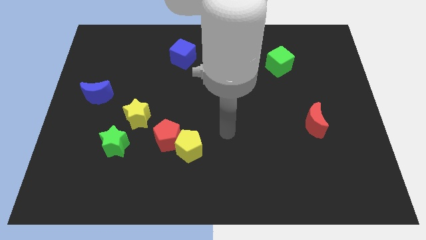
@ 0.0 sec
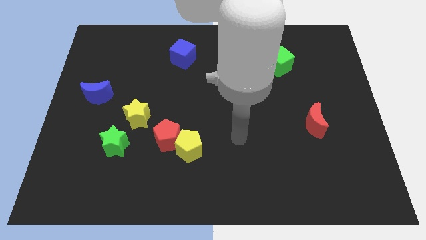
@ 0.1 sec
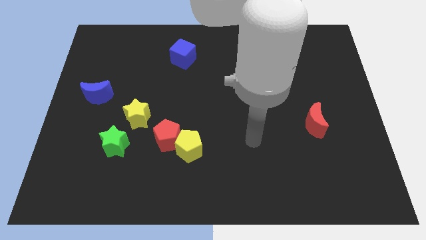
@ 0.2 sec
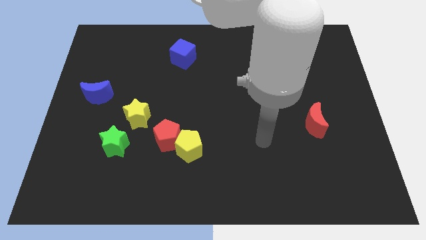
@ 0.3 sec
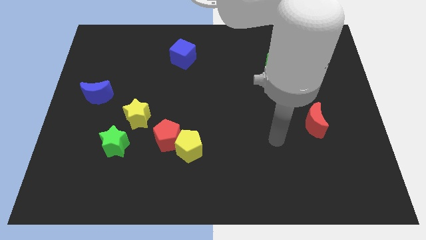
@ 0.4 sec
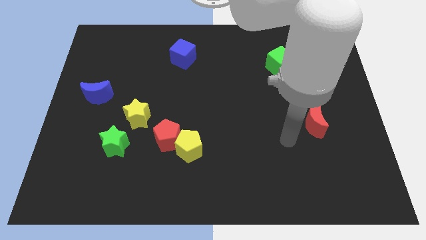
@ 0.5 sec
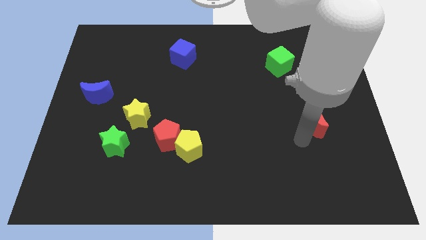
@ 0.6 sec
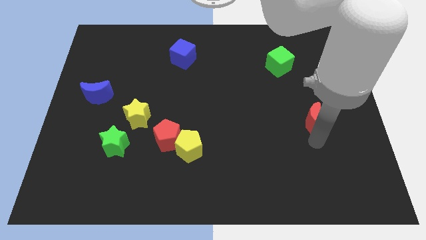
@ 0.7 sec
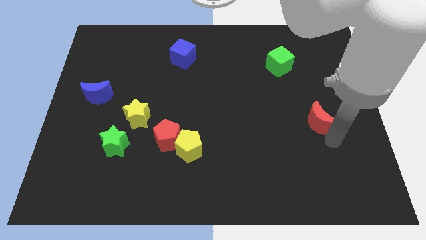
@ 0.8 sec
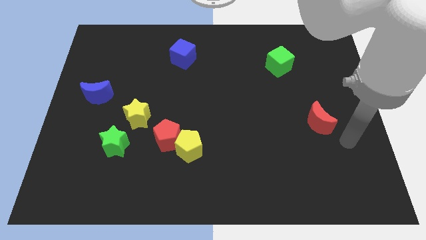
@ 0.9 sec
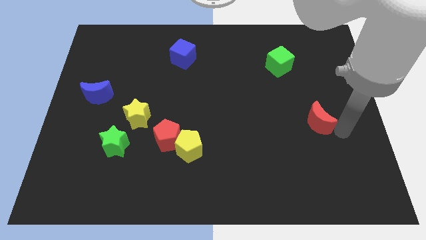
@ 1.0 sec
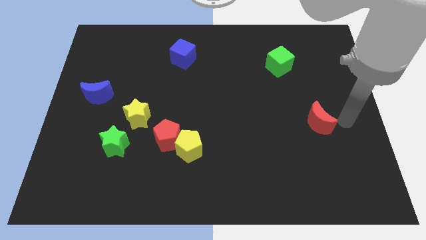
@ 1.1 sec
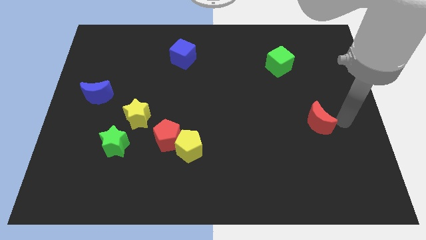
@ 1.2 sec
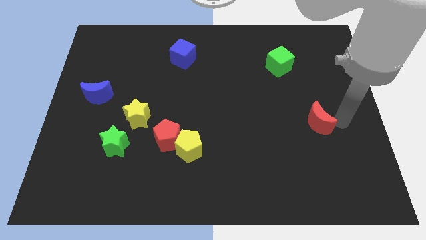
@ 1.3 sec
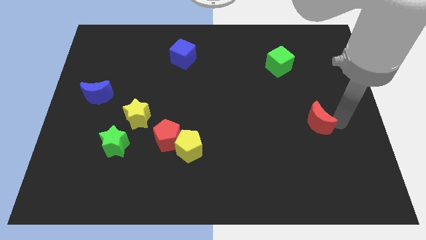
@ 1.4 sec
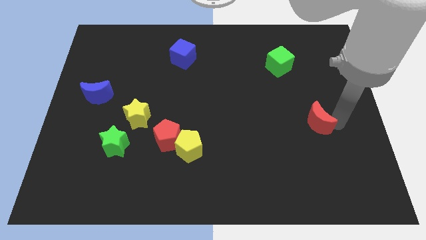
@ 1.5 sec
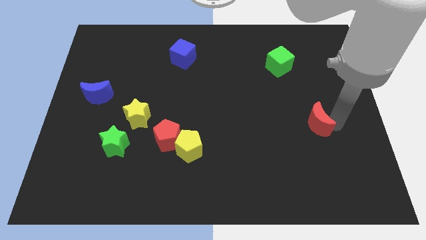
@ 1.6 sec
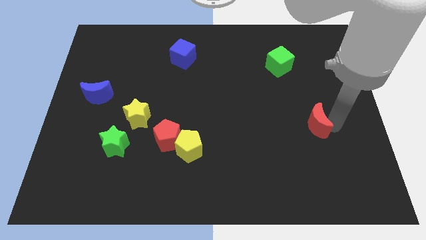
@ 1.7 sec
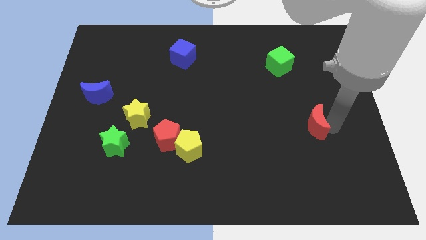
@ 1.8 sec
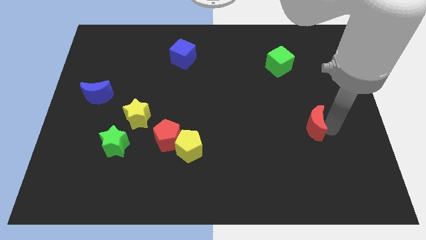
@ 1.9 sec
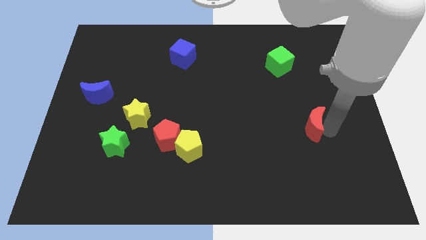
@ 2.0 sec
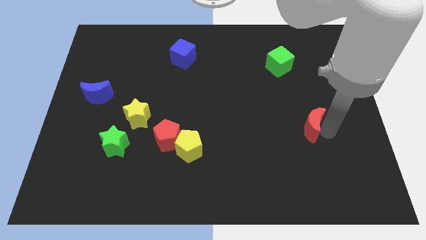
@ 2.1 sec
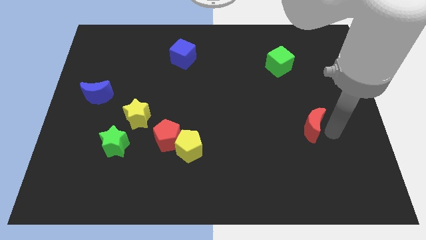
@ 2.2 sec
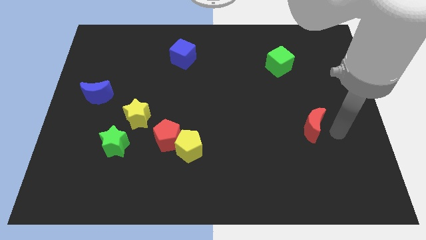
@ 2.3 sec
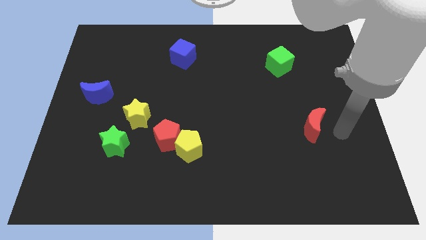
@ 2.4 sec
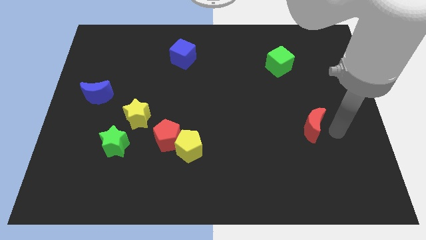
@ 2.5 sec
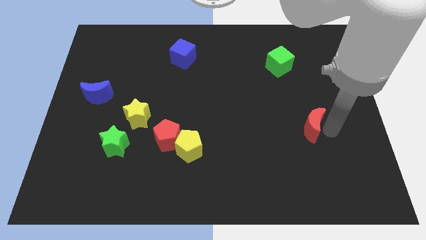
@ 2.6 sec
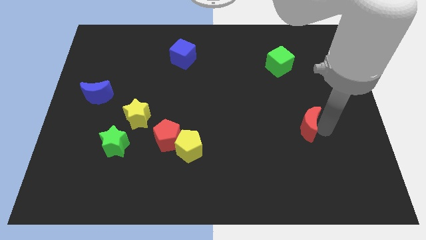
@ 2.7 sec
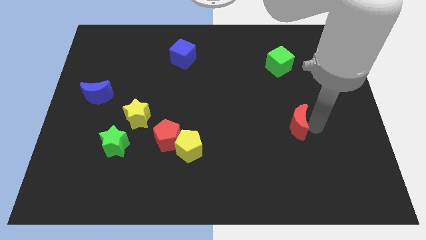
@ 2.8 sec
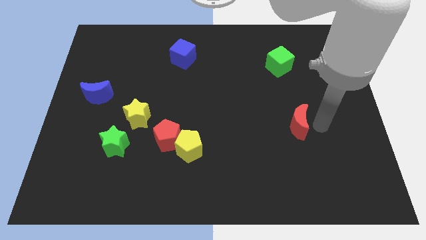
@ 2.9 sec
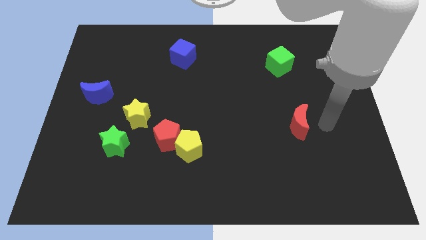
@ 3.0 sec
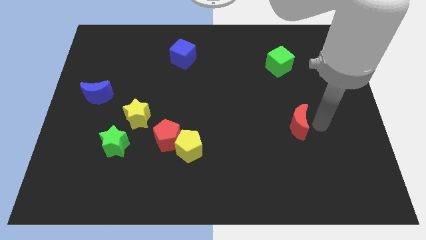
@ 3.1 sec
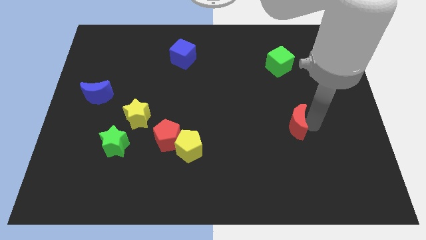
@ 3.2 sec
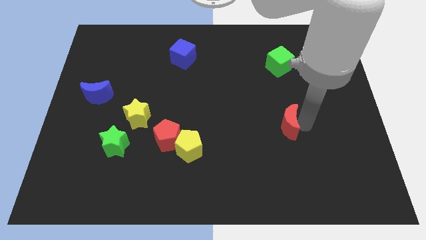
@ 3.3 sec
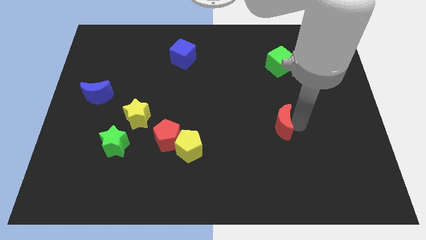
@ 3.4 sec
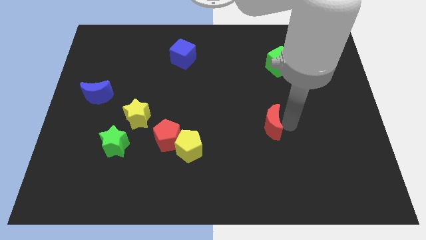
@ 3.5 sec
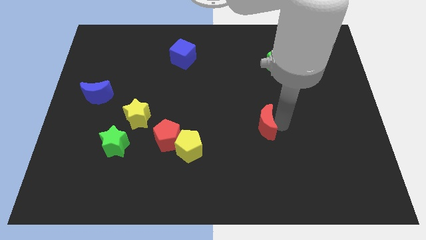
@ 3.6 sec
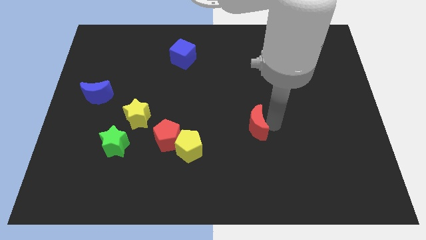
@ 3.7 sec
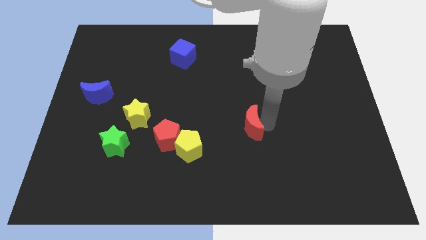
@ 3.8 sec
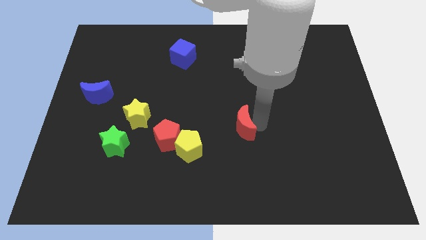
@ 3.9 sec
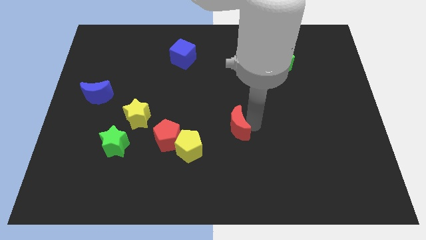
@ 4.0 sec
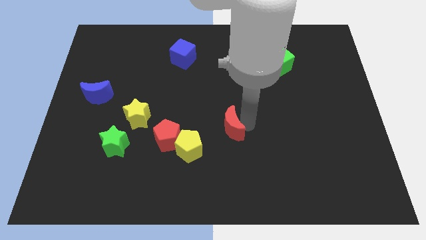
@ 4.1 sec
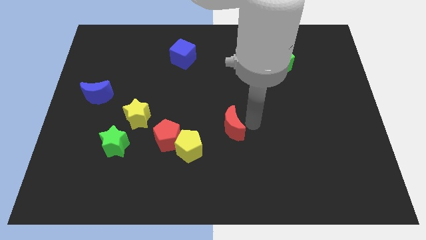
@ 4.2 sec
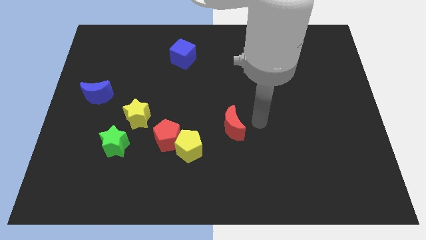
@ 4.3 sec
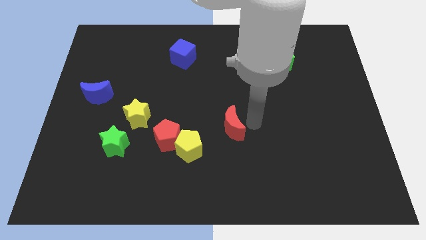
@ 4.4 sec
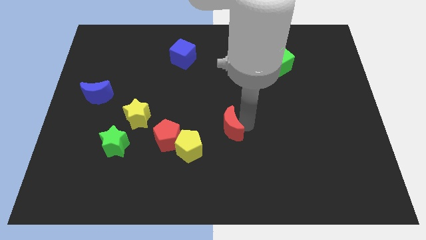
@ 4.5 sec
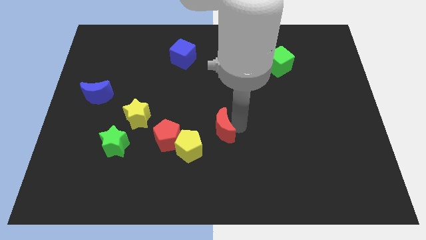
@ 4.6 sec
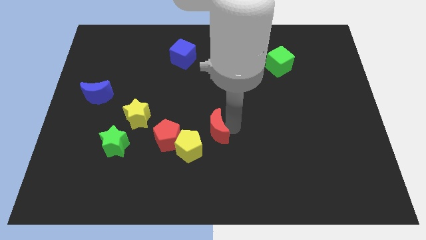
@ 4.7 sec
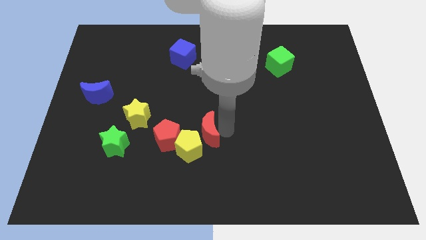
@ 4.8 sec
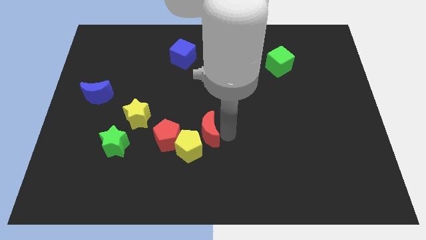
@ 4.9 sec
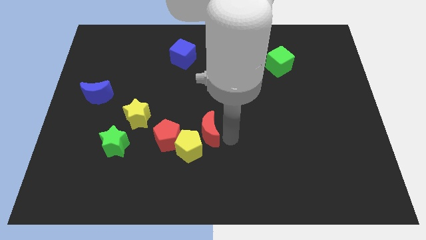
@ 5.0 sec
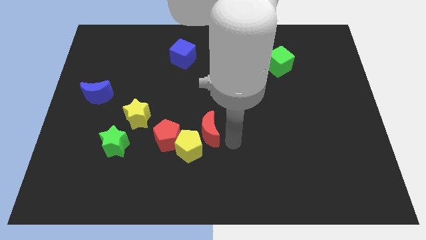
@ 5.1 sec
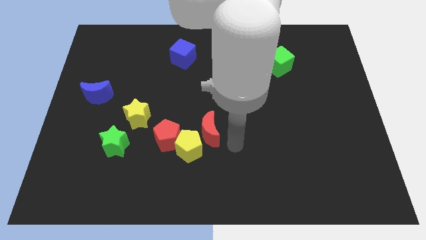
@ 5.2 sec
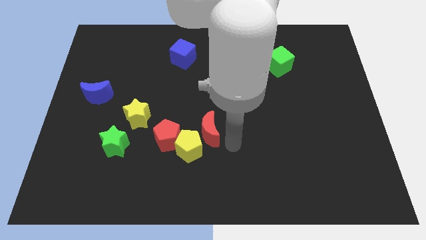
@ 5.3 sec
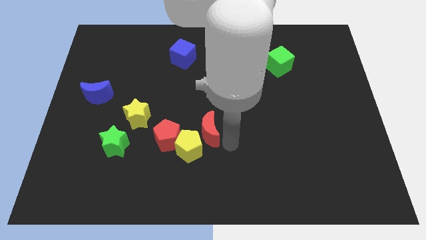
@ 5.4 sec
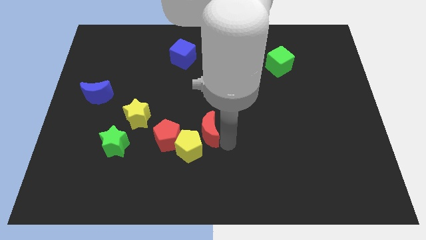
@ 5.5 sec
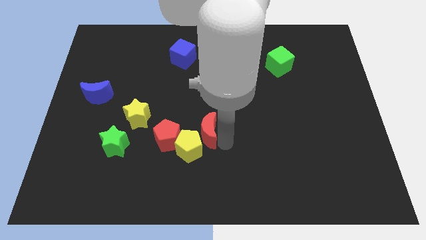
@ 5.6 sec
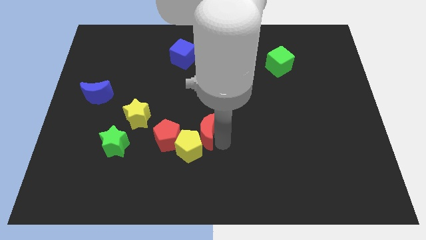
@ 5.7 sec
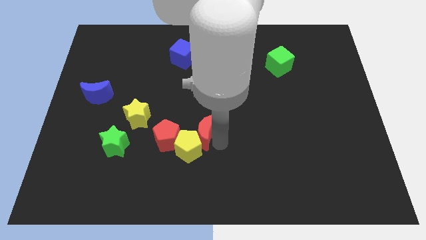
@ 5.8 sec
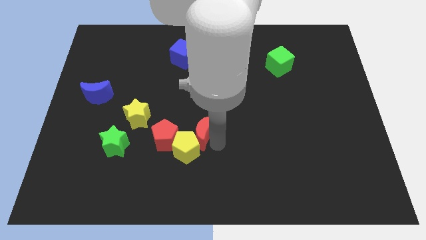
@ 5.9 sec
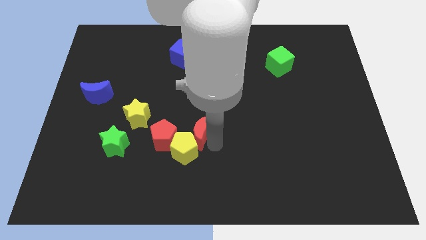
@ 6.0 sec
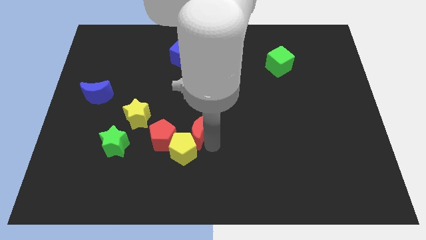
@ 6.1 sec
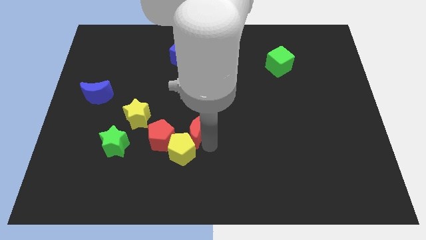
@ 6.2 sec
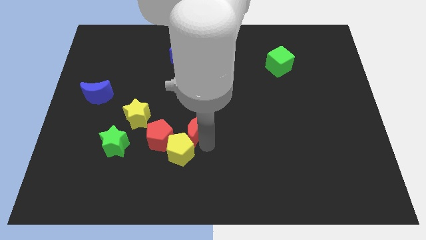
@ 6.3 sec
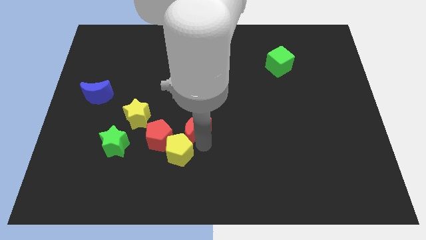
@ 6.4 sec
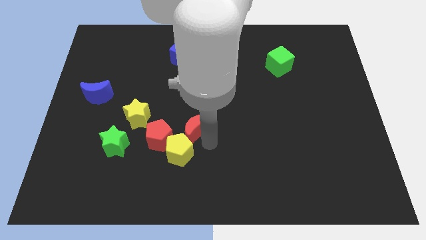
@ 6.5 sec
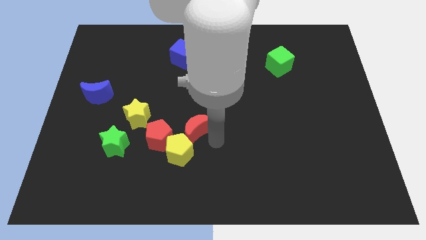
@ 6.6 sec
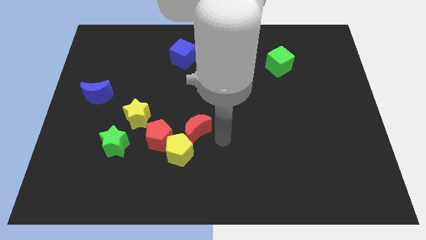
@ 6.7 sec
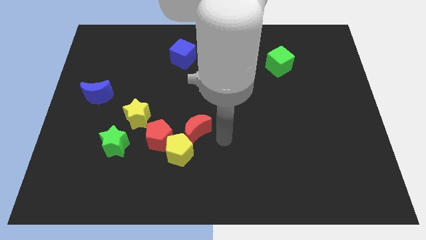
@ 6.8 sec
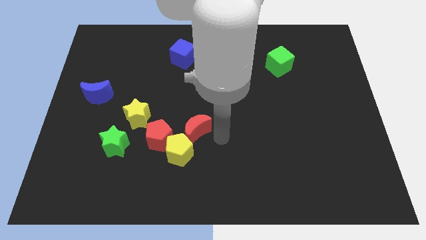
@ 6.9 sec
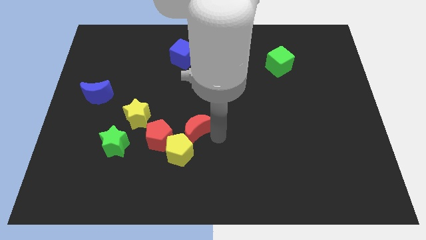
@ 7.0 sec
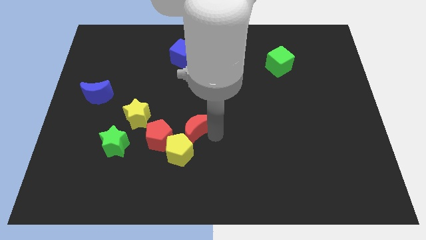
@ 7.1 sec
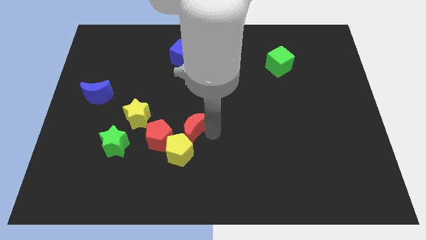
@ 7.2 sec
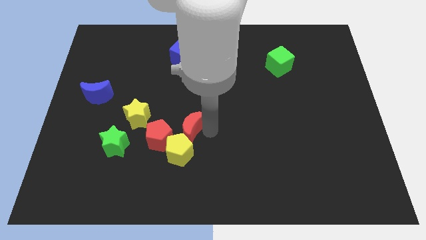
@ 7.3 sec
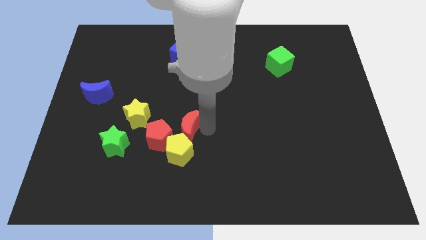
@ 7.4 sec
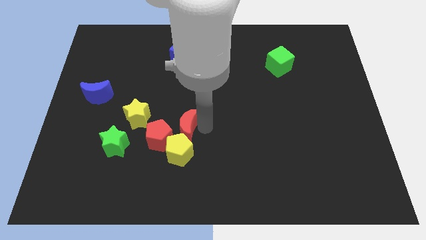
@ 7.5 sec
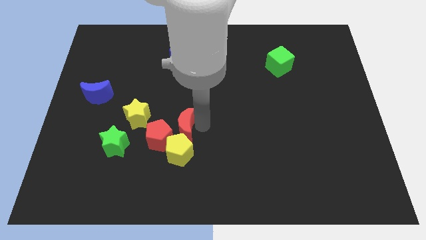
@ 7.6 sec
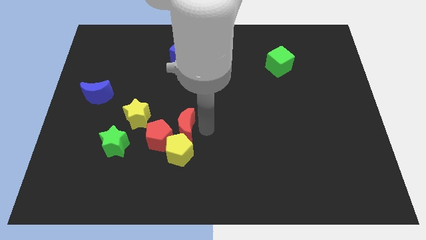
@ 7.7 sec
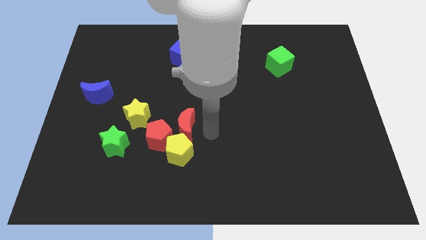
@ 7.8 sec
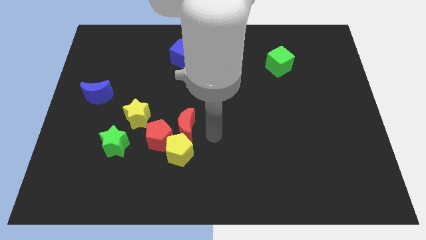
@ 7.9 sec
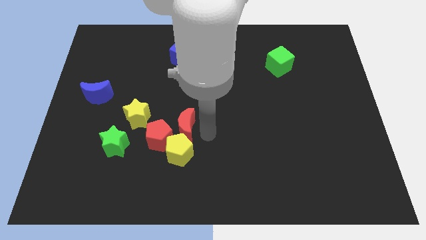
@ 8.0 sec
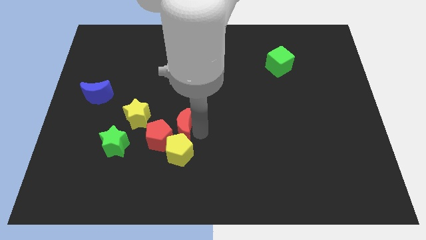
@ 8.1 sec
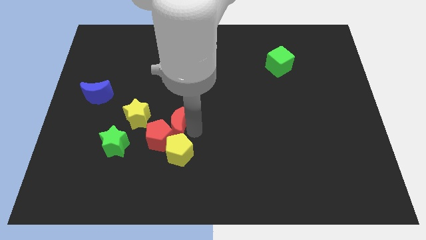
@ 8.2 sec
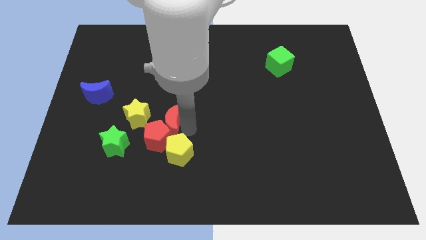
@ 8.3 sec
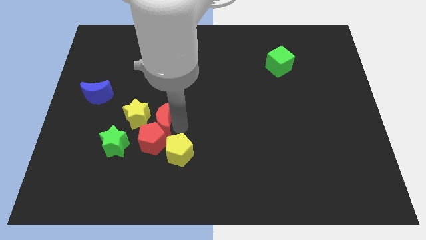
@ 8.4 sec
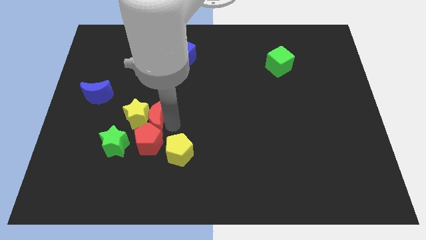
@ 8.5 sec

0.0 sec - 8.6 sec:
slide the red moon next to the yellow star
